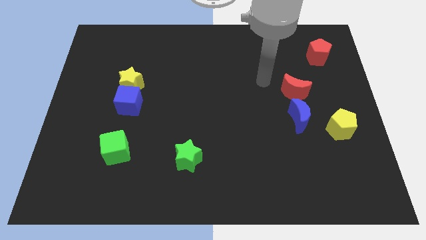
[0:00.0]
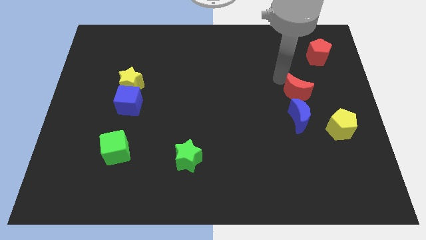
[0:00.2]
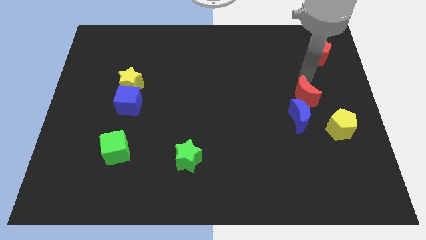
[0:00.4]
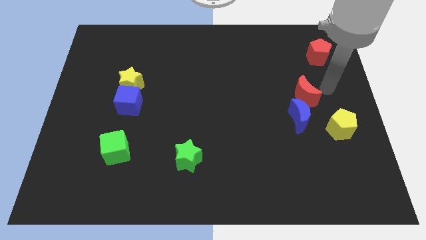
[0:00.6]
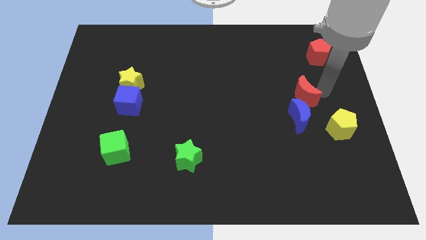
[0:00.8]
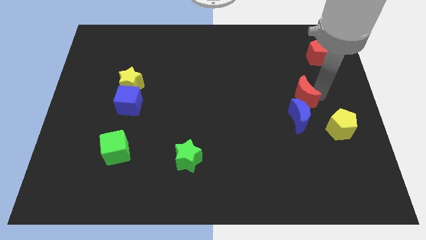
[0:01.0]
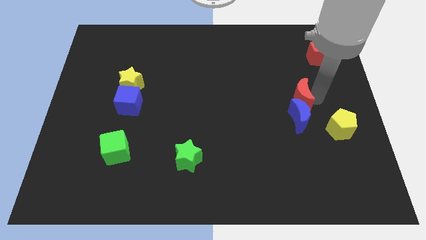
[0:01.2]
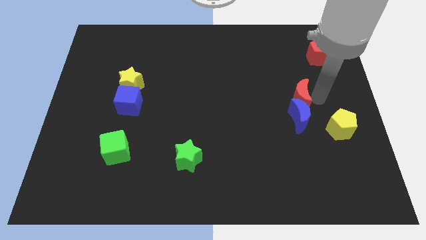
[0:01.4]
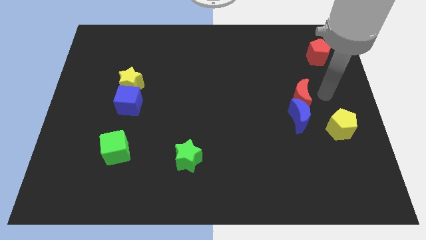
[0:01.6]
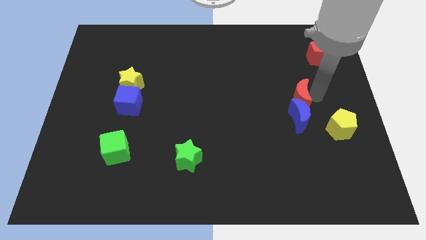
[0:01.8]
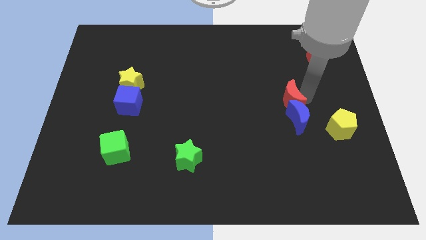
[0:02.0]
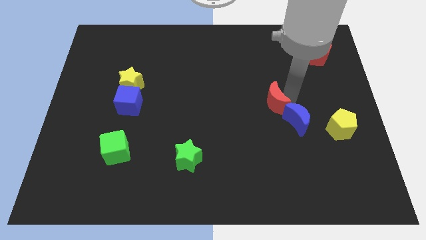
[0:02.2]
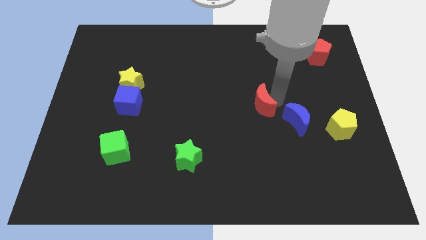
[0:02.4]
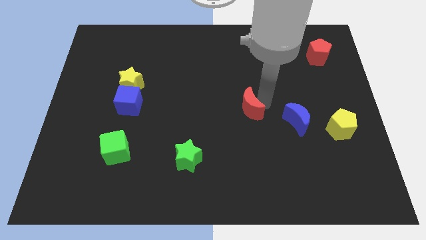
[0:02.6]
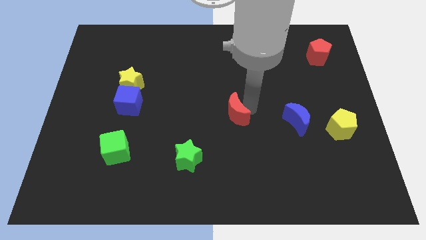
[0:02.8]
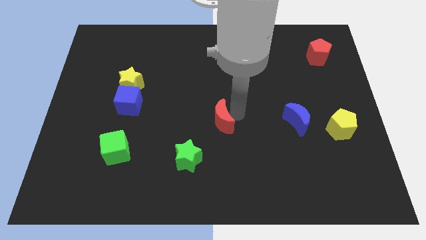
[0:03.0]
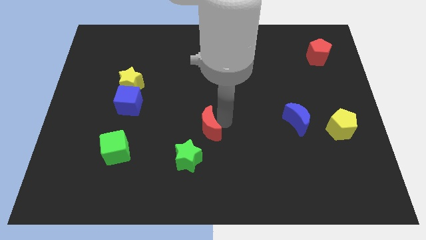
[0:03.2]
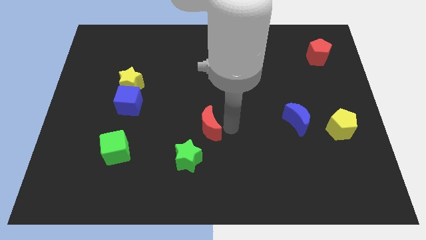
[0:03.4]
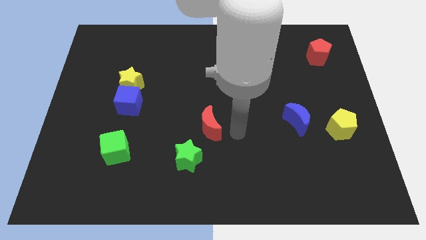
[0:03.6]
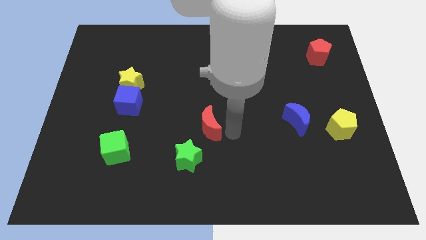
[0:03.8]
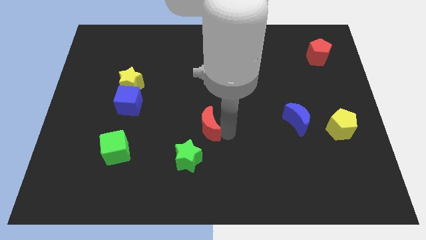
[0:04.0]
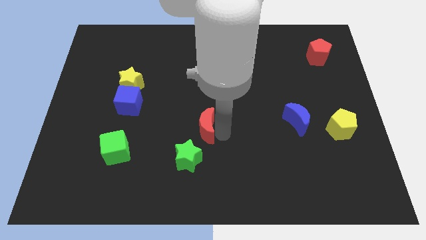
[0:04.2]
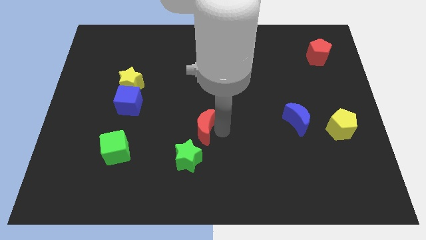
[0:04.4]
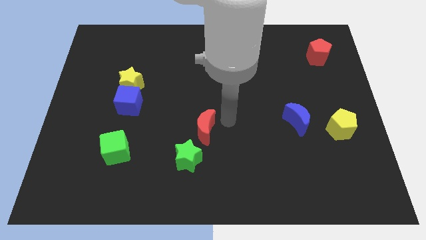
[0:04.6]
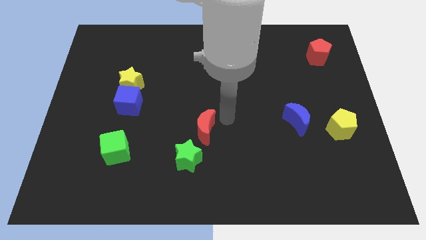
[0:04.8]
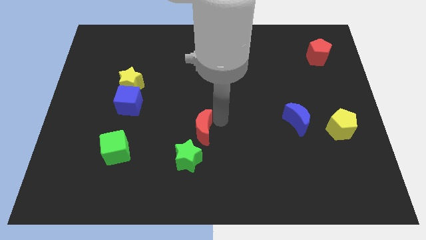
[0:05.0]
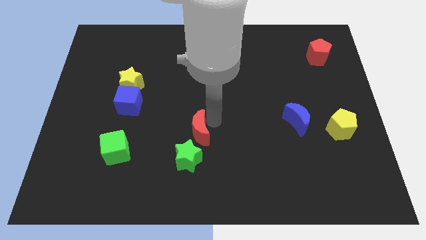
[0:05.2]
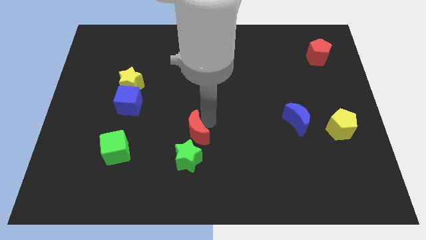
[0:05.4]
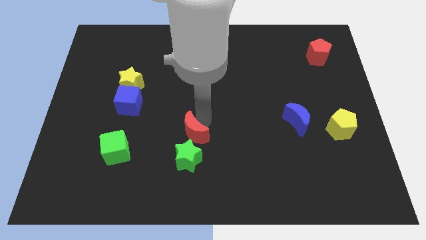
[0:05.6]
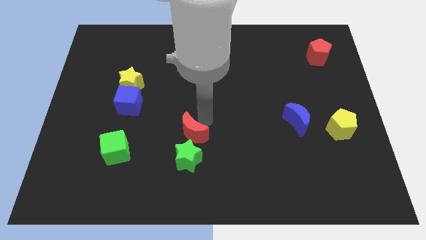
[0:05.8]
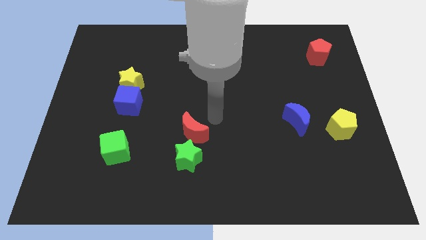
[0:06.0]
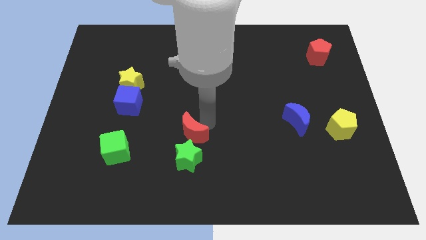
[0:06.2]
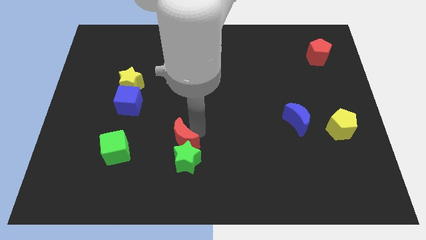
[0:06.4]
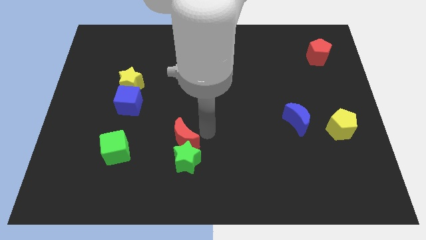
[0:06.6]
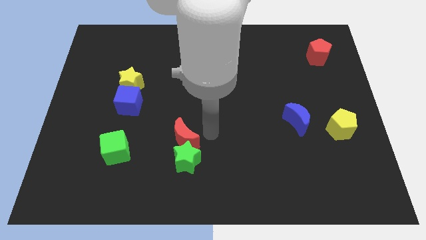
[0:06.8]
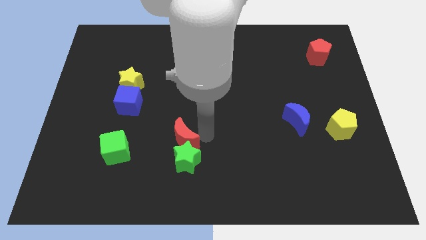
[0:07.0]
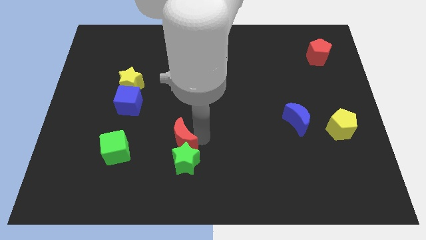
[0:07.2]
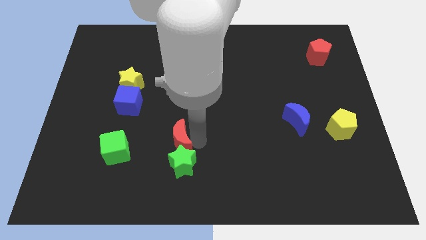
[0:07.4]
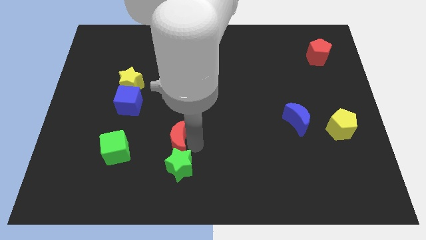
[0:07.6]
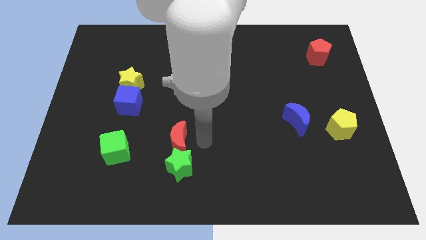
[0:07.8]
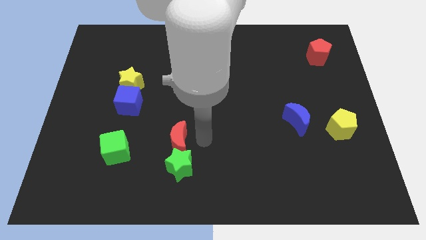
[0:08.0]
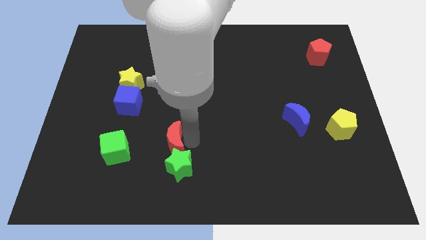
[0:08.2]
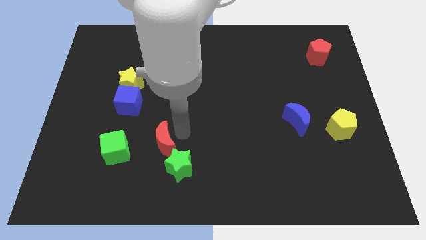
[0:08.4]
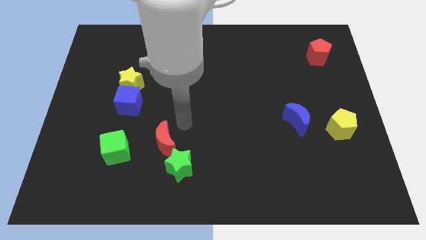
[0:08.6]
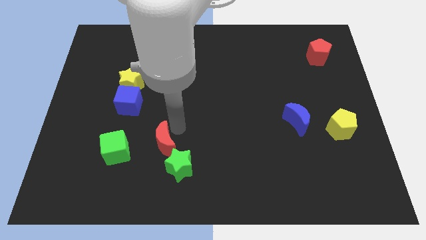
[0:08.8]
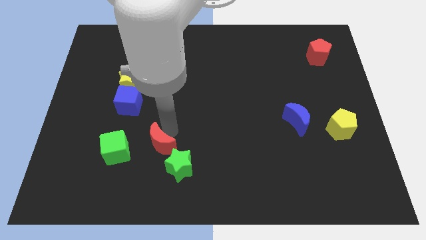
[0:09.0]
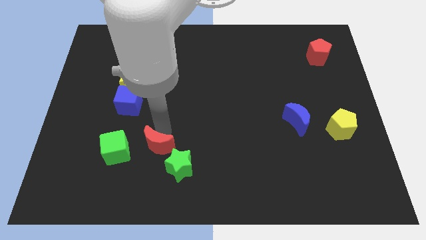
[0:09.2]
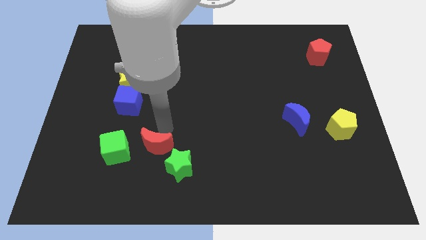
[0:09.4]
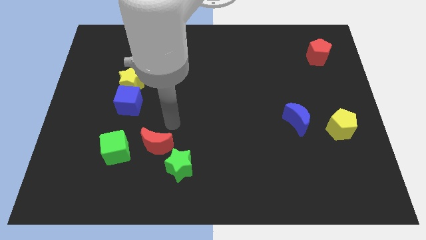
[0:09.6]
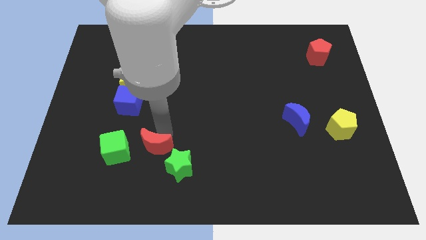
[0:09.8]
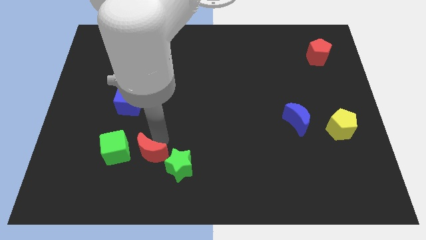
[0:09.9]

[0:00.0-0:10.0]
slide the red moon to the bottom right side of the green cube

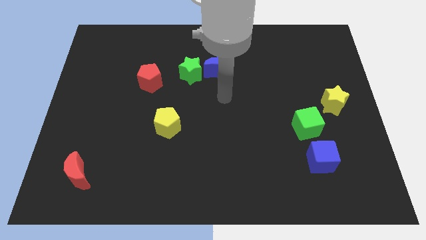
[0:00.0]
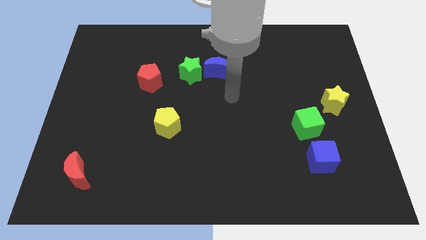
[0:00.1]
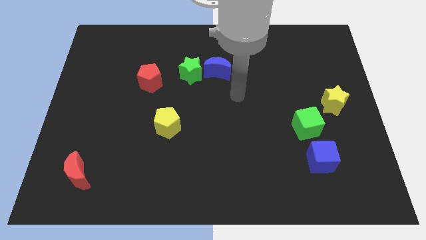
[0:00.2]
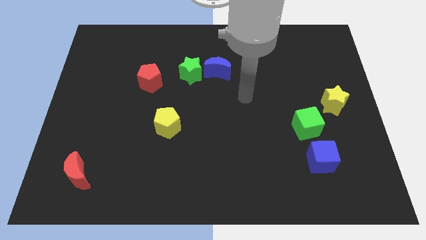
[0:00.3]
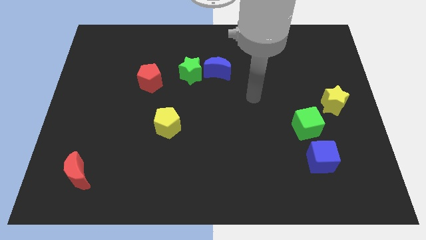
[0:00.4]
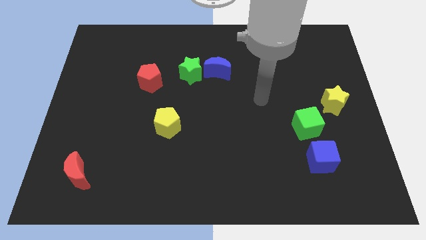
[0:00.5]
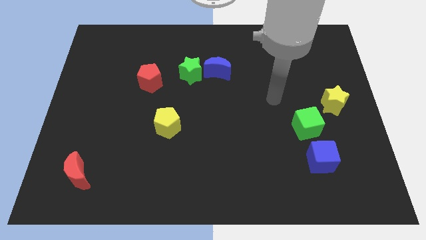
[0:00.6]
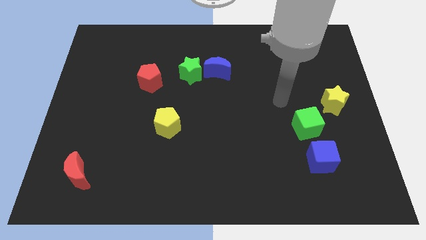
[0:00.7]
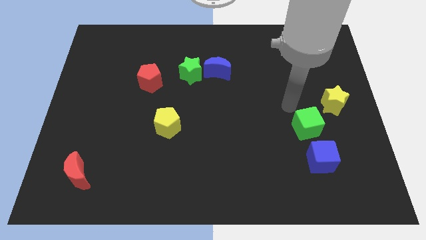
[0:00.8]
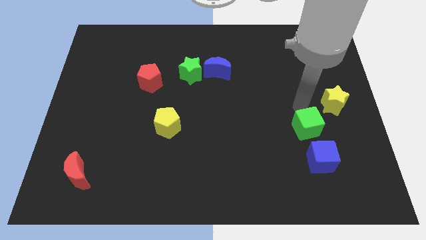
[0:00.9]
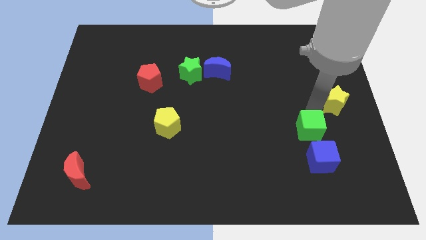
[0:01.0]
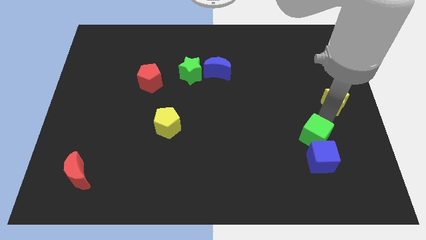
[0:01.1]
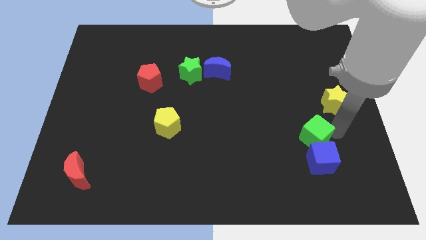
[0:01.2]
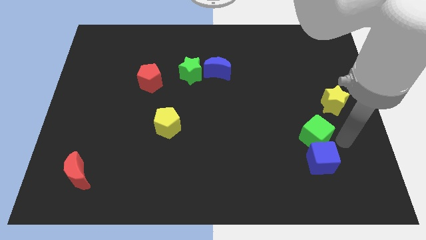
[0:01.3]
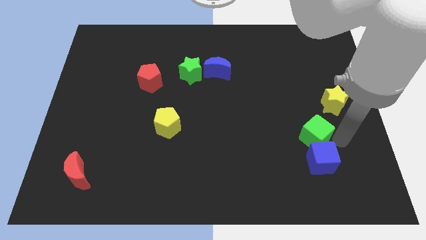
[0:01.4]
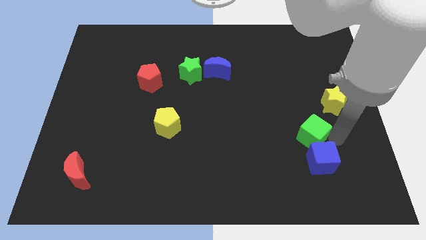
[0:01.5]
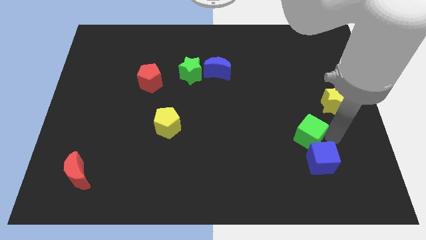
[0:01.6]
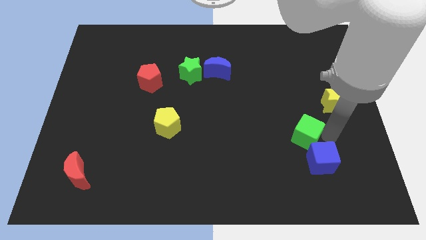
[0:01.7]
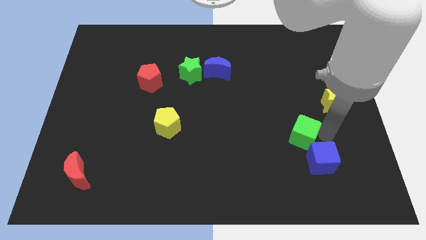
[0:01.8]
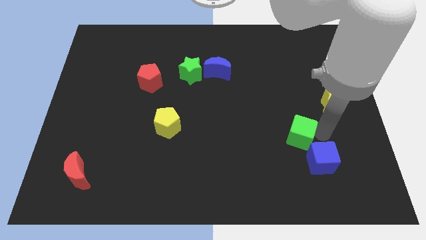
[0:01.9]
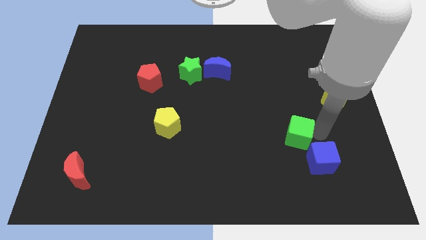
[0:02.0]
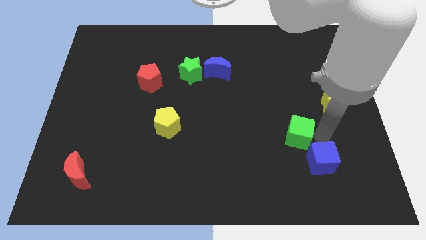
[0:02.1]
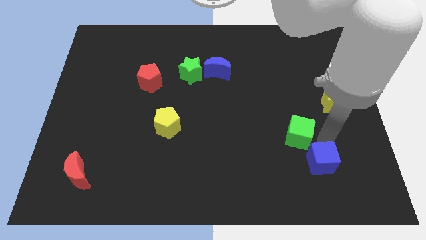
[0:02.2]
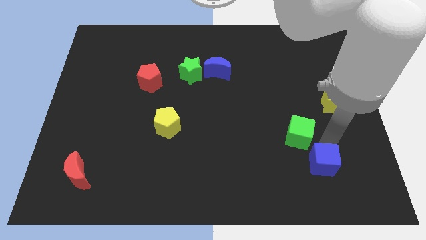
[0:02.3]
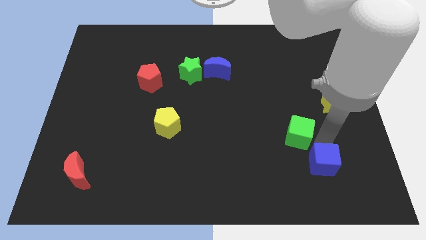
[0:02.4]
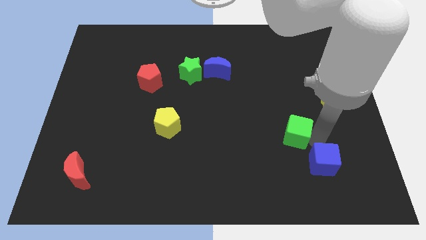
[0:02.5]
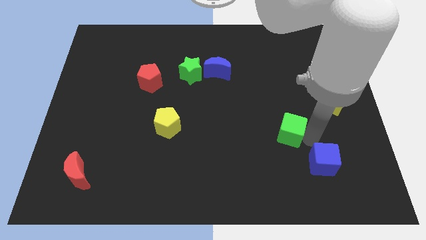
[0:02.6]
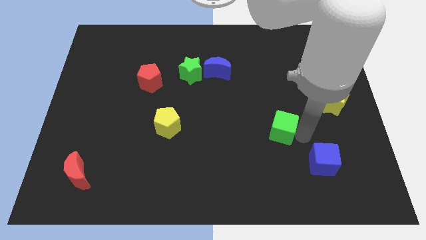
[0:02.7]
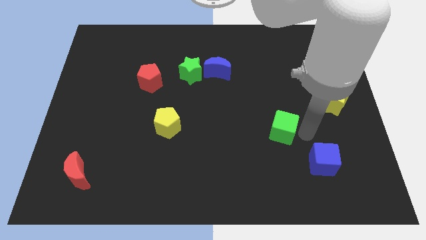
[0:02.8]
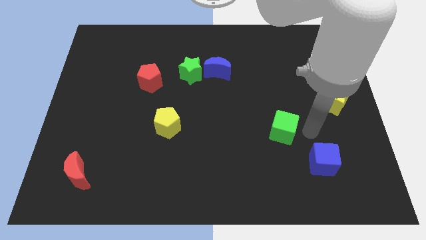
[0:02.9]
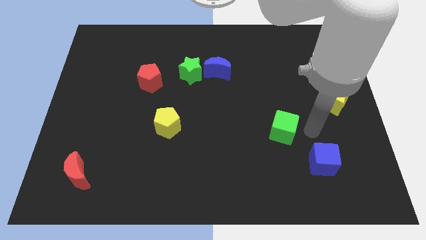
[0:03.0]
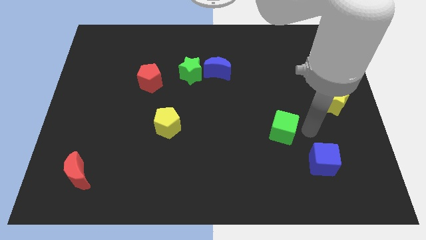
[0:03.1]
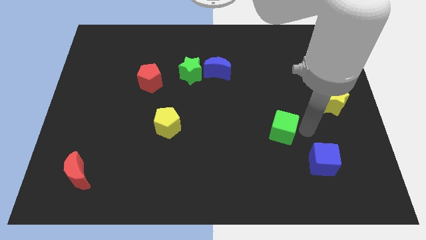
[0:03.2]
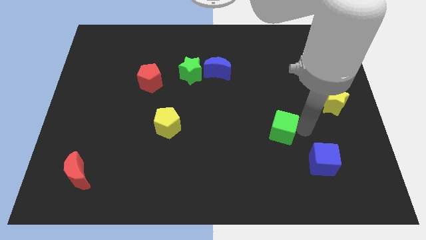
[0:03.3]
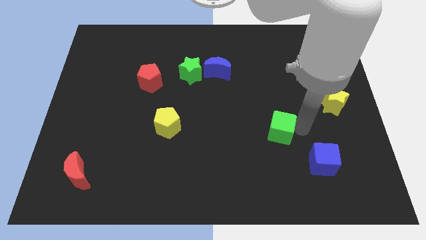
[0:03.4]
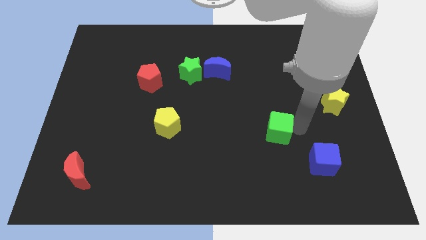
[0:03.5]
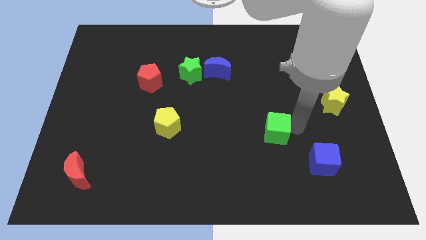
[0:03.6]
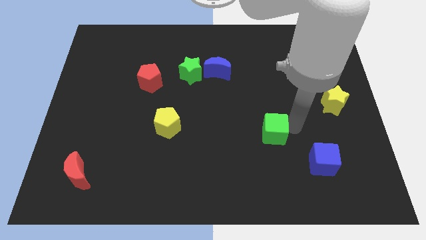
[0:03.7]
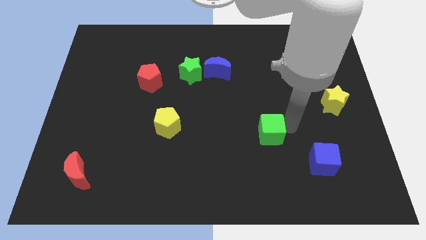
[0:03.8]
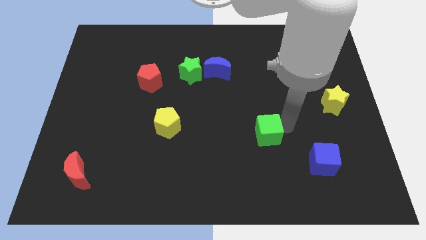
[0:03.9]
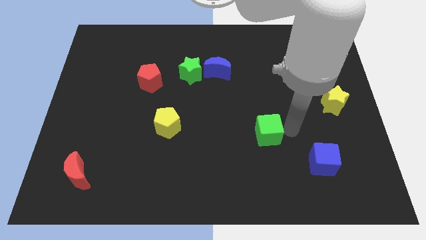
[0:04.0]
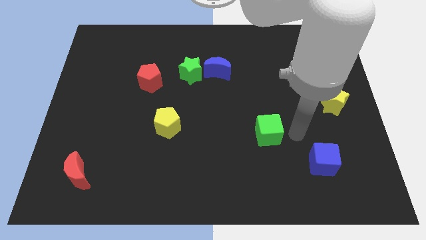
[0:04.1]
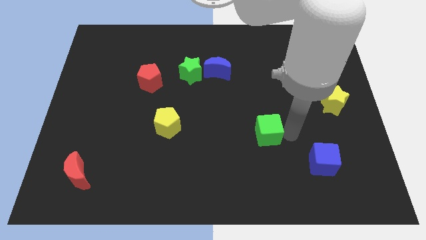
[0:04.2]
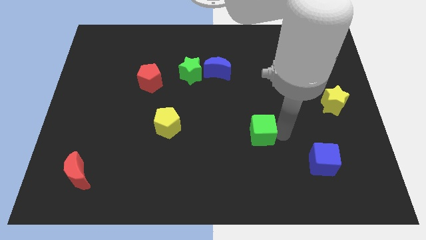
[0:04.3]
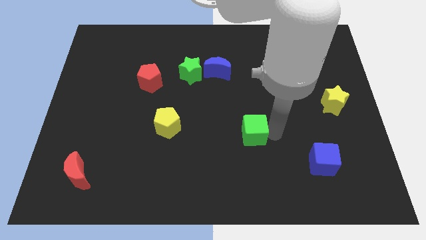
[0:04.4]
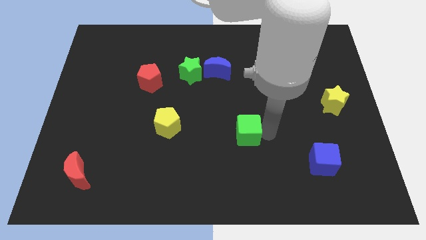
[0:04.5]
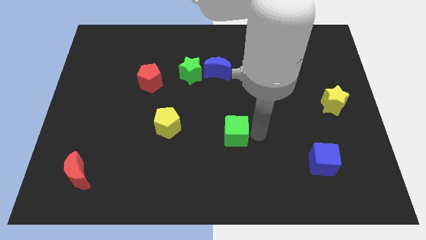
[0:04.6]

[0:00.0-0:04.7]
move the green cube just right of the yellow pentagon
